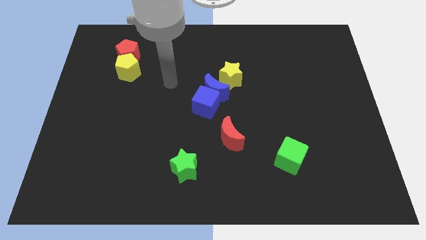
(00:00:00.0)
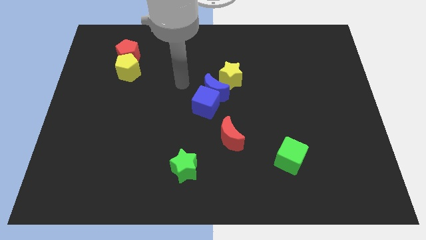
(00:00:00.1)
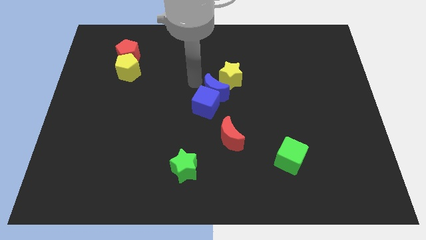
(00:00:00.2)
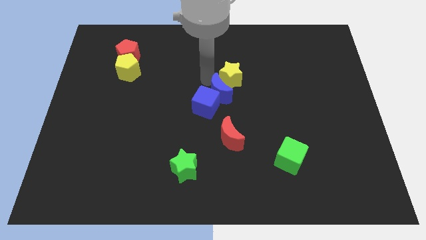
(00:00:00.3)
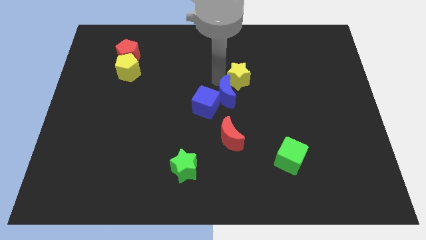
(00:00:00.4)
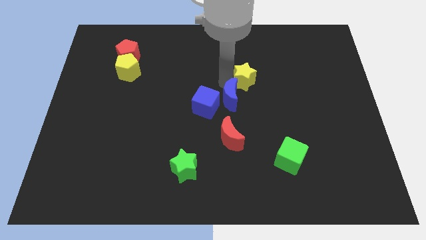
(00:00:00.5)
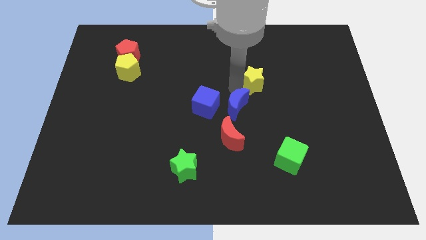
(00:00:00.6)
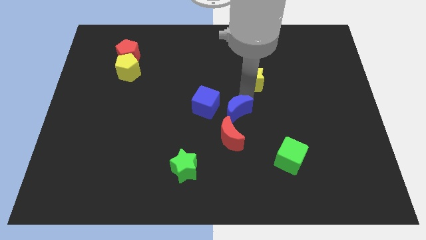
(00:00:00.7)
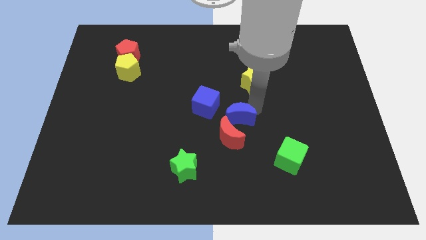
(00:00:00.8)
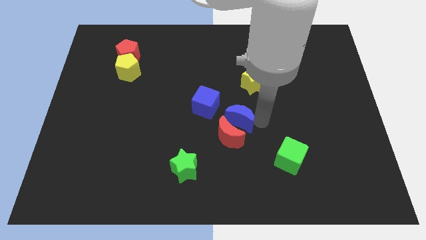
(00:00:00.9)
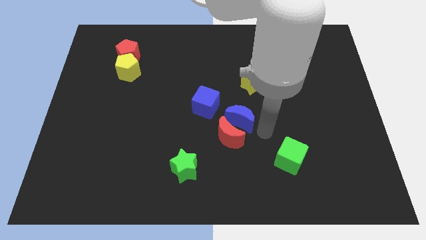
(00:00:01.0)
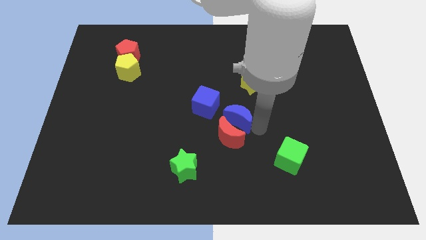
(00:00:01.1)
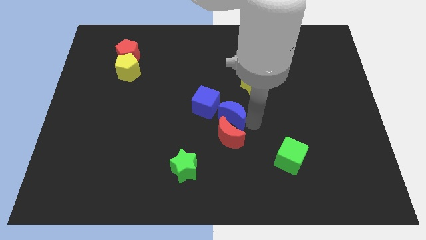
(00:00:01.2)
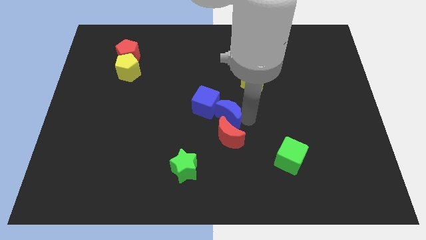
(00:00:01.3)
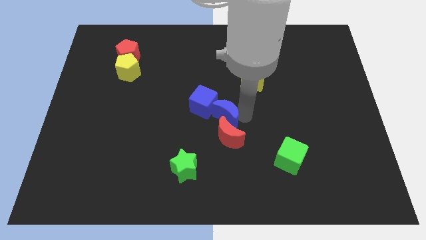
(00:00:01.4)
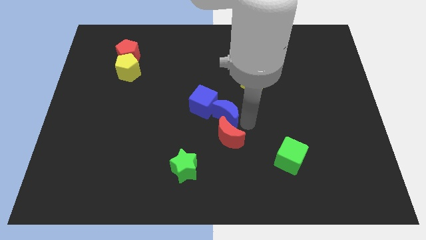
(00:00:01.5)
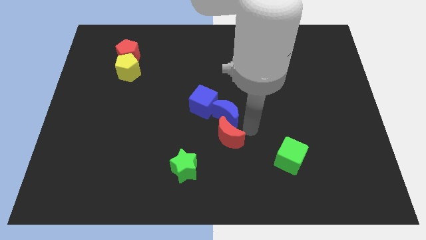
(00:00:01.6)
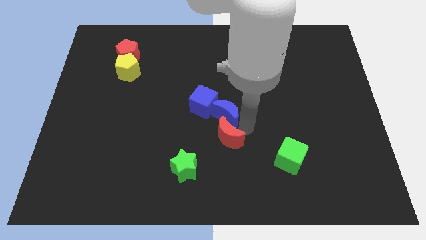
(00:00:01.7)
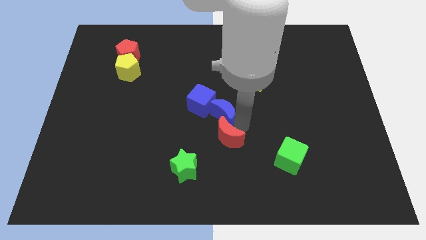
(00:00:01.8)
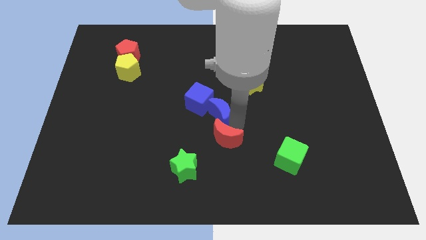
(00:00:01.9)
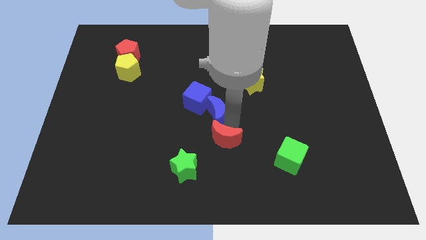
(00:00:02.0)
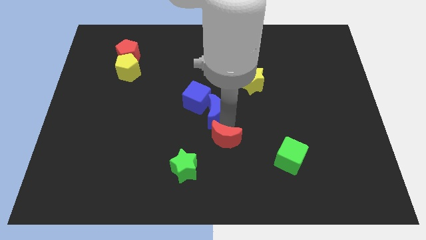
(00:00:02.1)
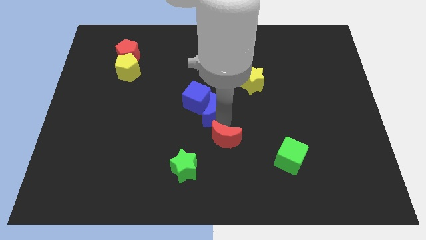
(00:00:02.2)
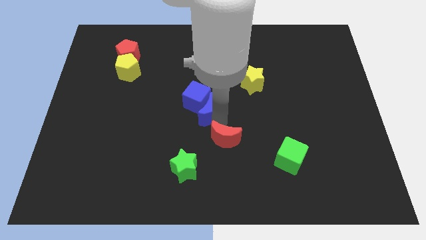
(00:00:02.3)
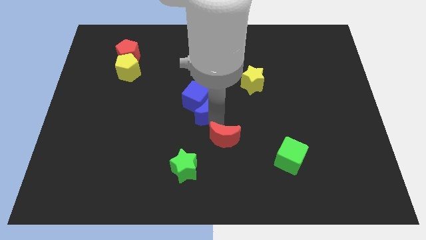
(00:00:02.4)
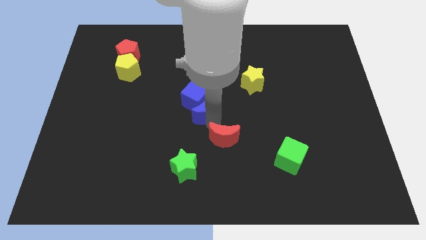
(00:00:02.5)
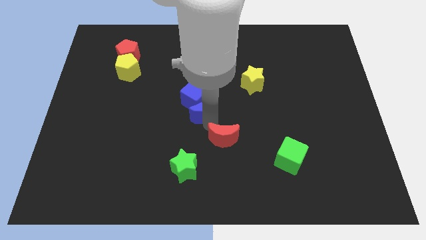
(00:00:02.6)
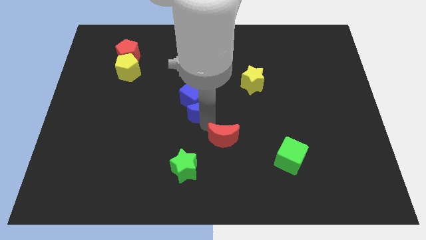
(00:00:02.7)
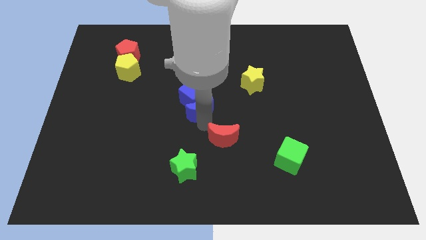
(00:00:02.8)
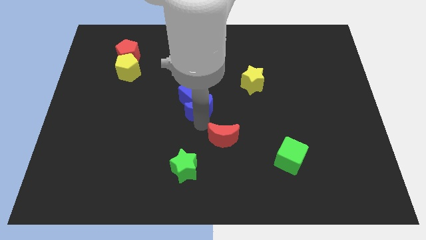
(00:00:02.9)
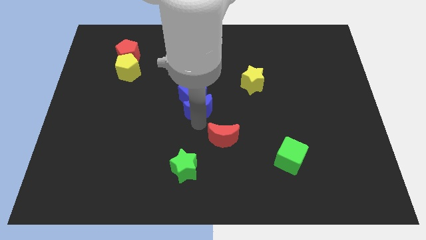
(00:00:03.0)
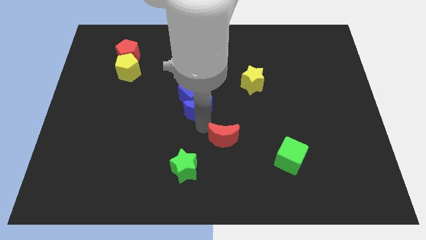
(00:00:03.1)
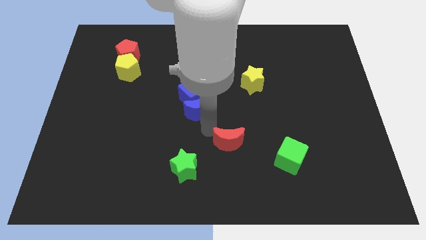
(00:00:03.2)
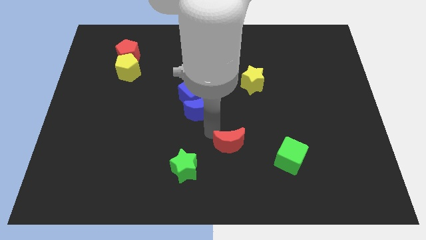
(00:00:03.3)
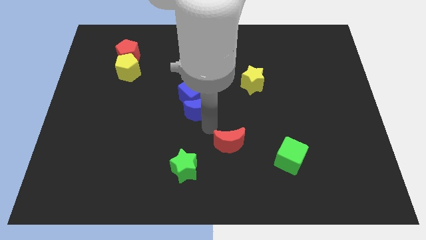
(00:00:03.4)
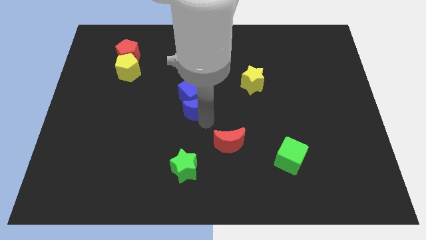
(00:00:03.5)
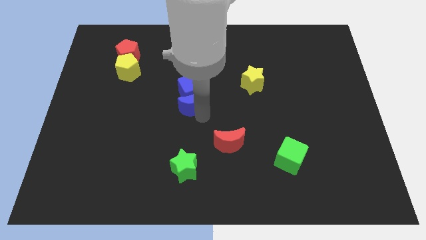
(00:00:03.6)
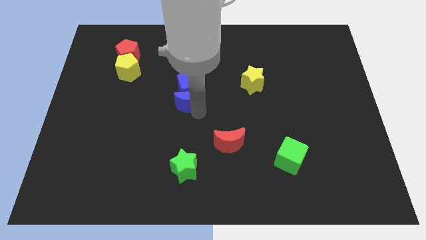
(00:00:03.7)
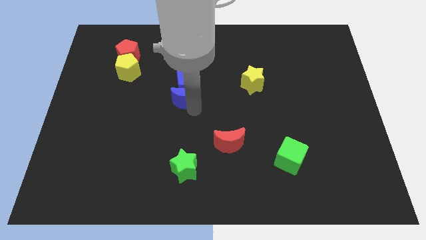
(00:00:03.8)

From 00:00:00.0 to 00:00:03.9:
pull the blue moon apart from the blue cube and yellow star

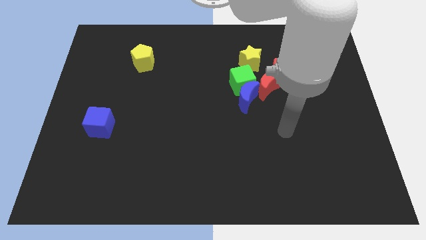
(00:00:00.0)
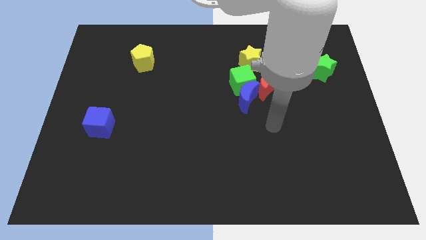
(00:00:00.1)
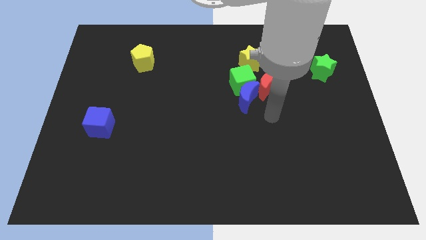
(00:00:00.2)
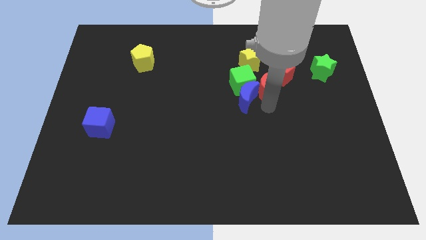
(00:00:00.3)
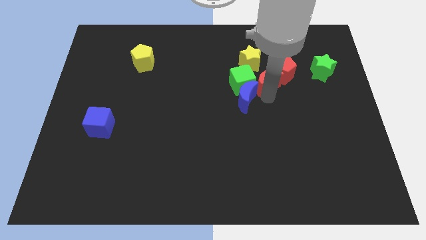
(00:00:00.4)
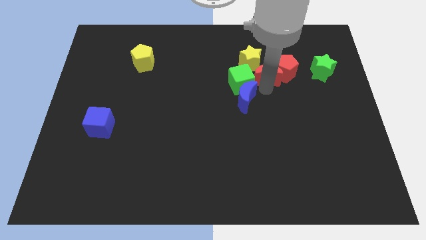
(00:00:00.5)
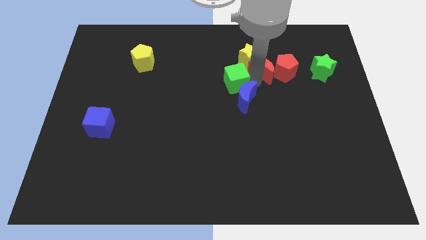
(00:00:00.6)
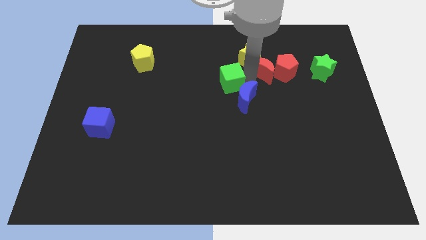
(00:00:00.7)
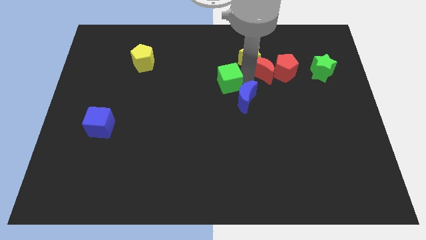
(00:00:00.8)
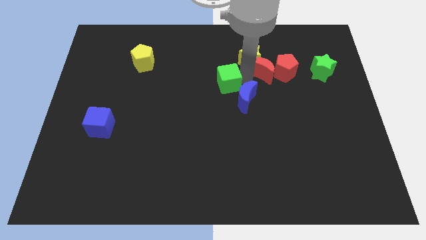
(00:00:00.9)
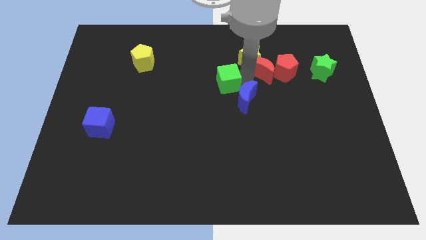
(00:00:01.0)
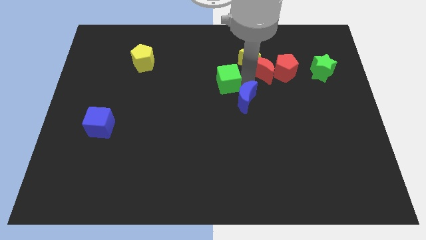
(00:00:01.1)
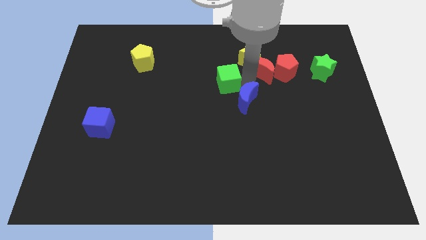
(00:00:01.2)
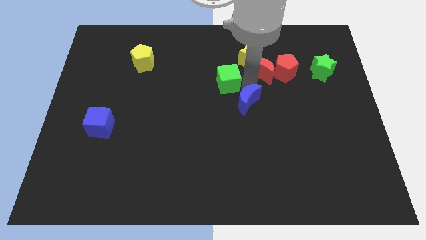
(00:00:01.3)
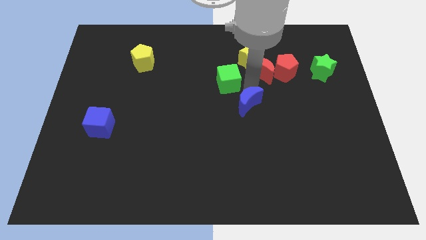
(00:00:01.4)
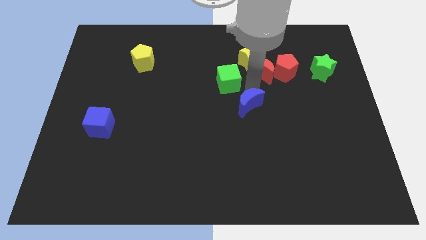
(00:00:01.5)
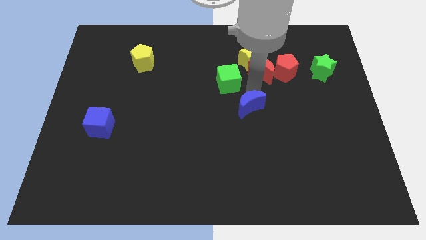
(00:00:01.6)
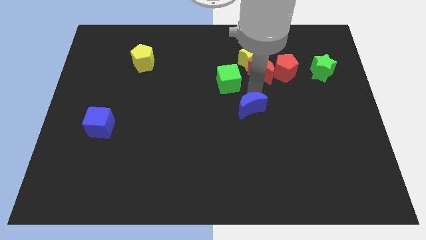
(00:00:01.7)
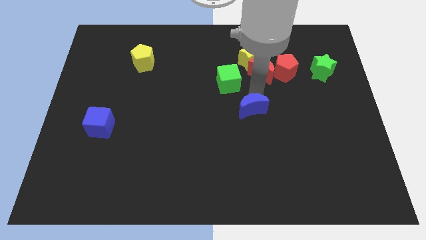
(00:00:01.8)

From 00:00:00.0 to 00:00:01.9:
separate the blue moon from the green cube and red moon

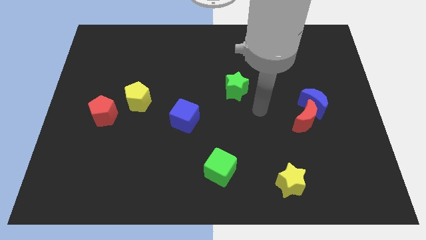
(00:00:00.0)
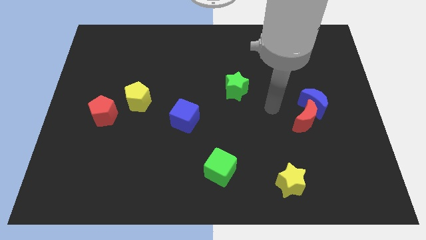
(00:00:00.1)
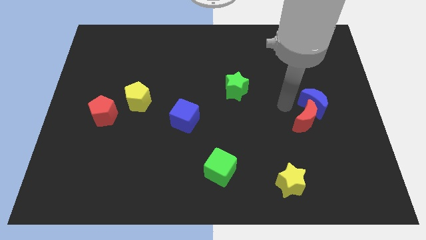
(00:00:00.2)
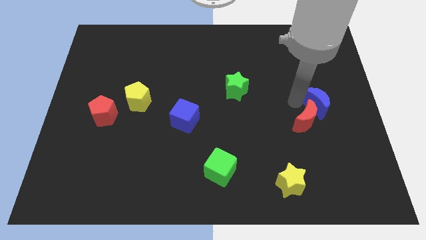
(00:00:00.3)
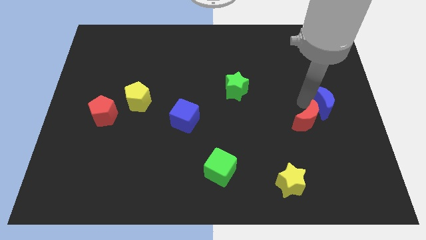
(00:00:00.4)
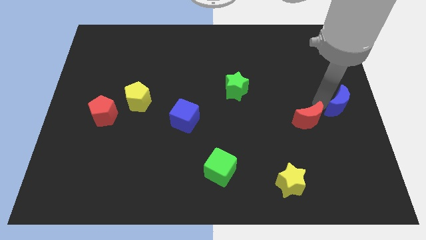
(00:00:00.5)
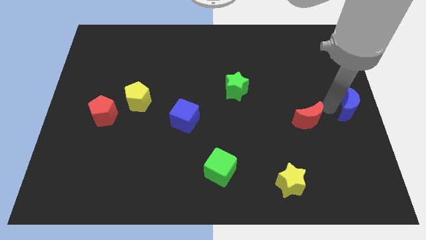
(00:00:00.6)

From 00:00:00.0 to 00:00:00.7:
pull the red moon apart from the blue moon

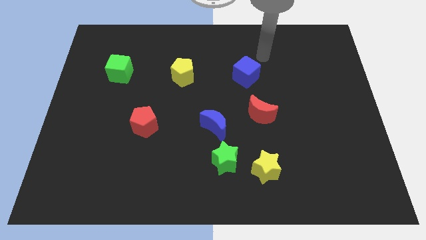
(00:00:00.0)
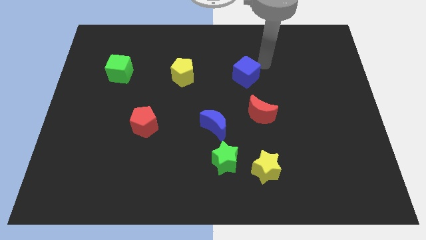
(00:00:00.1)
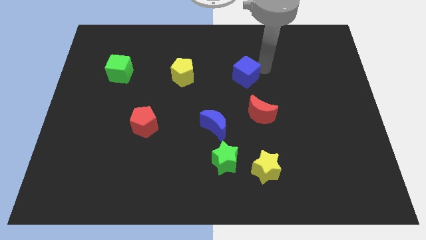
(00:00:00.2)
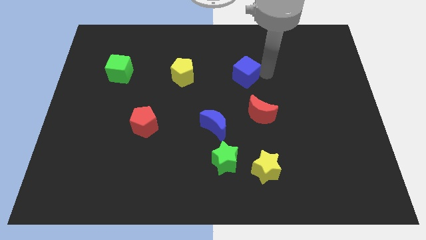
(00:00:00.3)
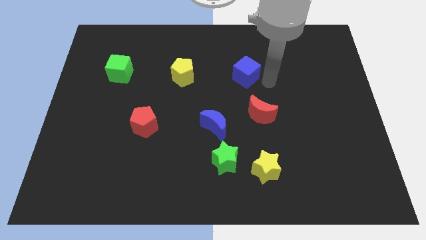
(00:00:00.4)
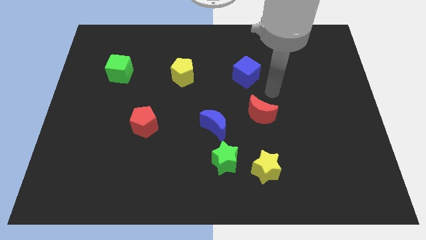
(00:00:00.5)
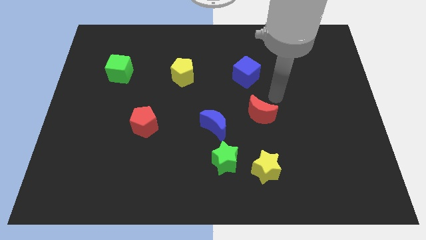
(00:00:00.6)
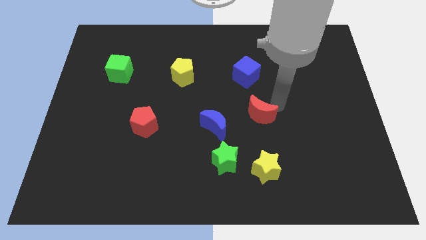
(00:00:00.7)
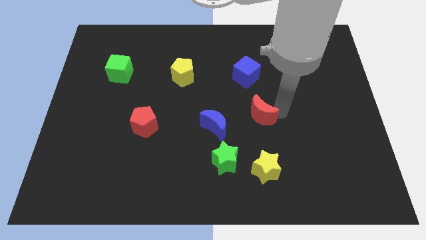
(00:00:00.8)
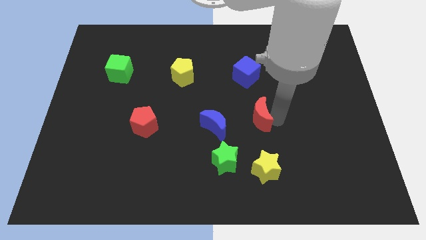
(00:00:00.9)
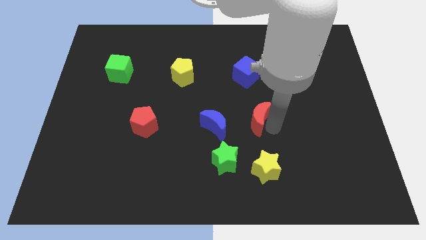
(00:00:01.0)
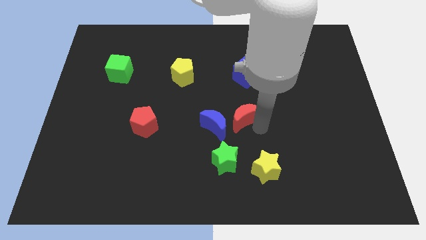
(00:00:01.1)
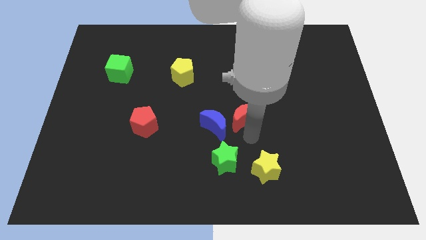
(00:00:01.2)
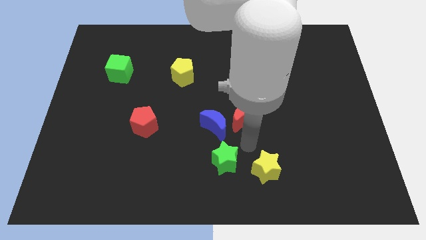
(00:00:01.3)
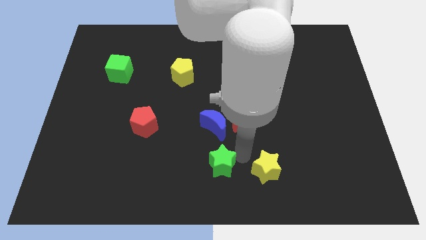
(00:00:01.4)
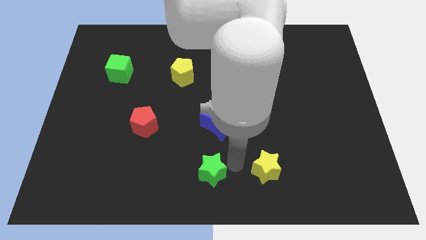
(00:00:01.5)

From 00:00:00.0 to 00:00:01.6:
move the yellow star away from the green star

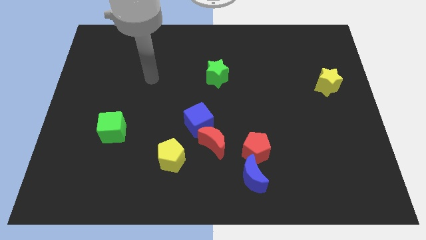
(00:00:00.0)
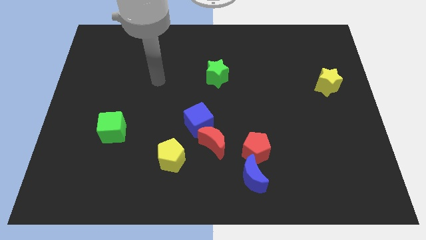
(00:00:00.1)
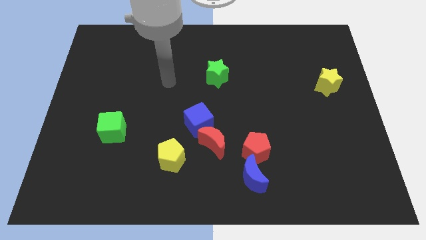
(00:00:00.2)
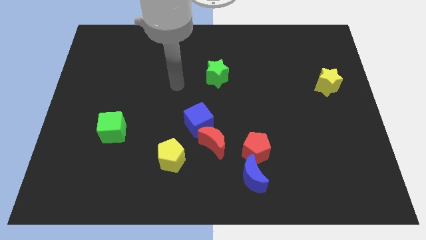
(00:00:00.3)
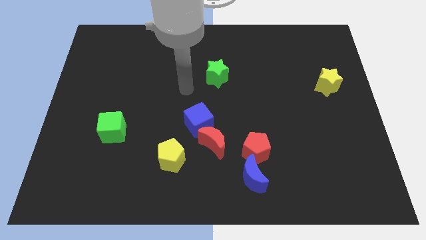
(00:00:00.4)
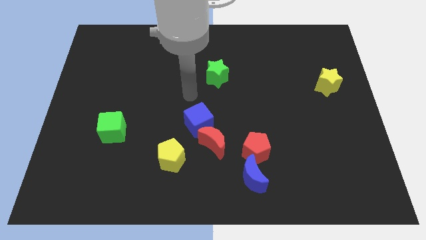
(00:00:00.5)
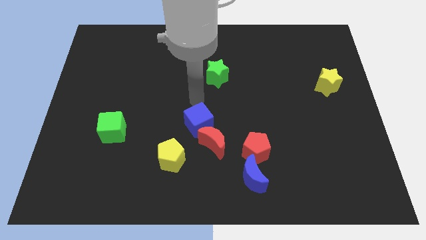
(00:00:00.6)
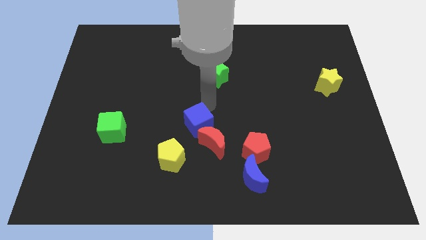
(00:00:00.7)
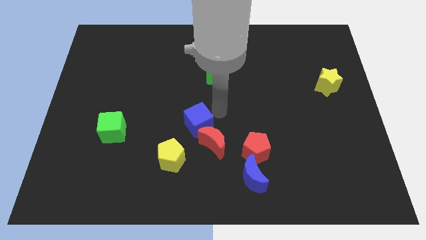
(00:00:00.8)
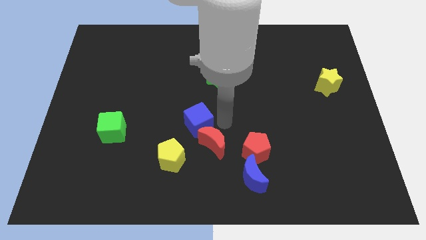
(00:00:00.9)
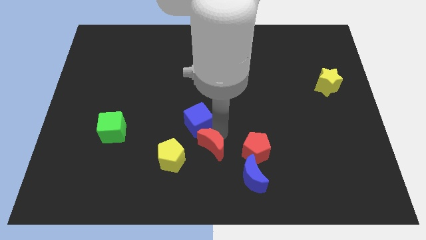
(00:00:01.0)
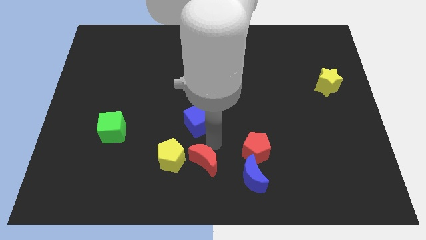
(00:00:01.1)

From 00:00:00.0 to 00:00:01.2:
move the blue cube away from the red moon
